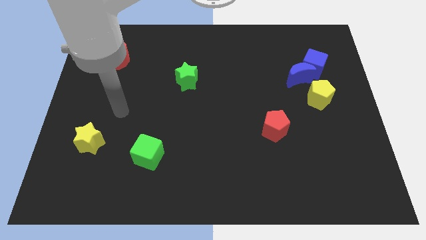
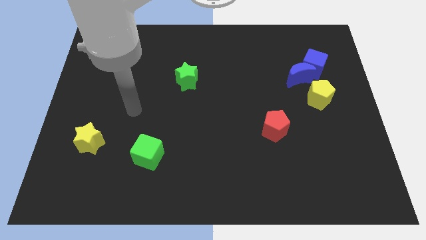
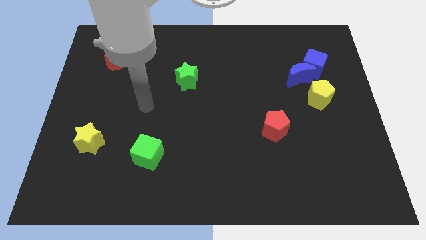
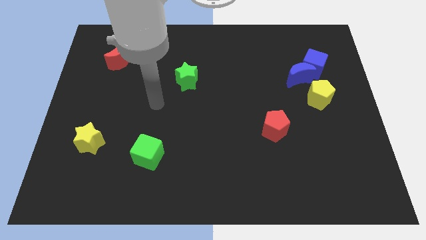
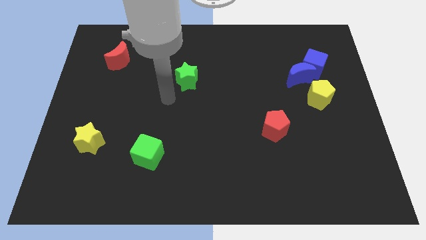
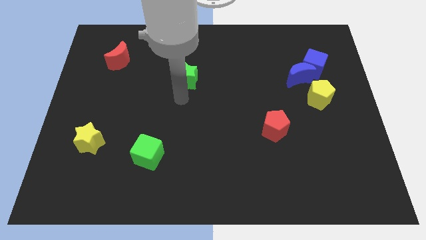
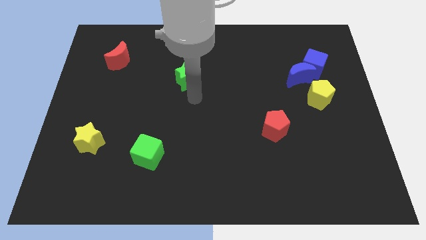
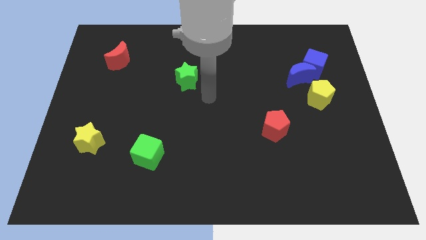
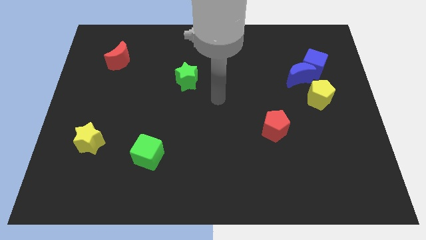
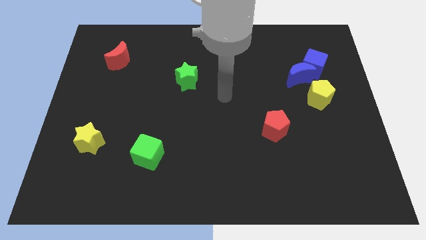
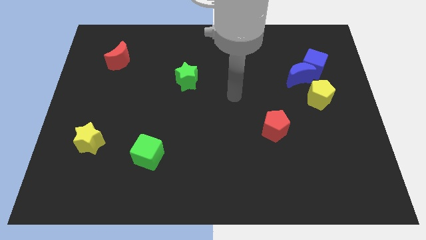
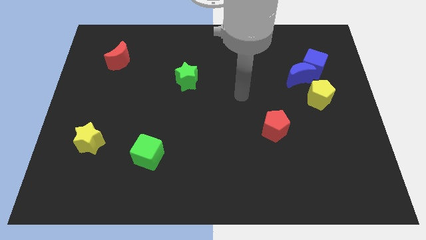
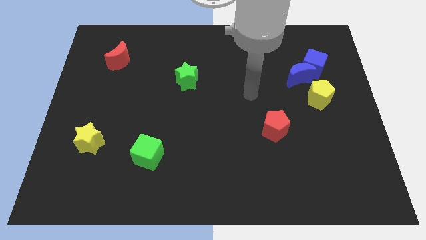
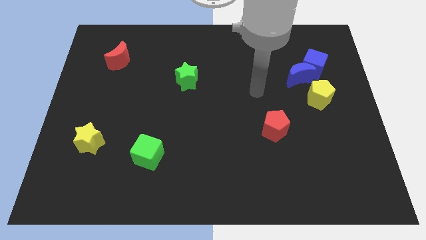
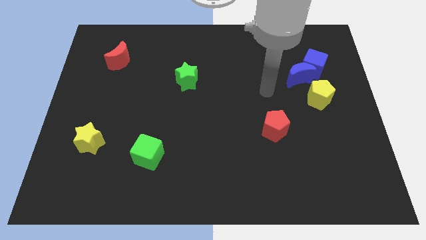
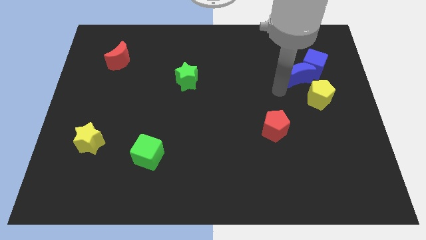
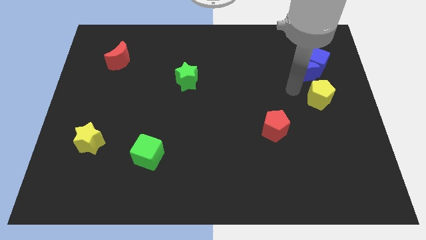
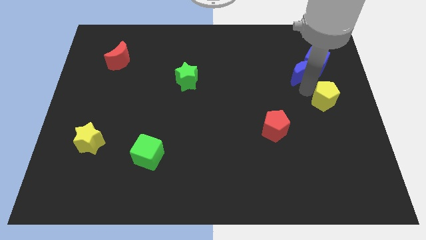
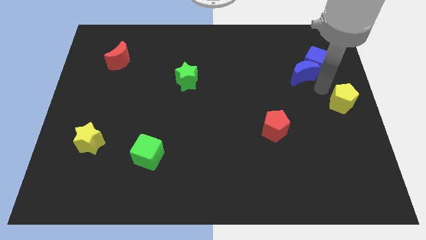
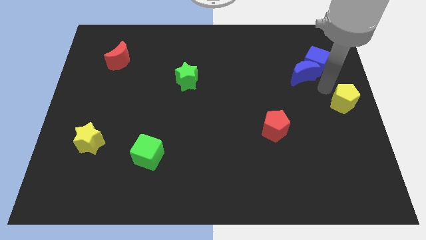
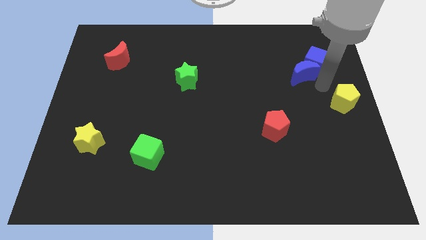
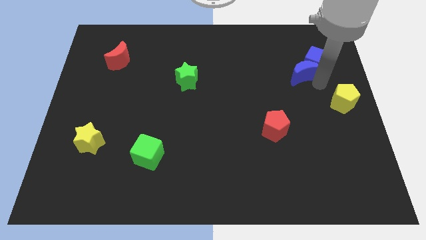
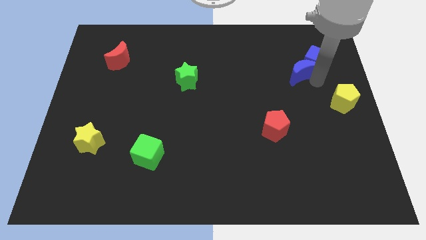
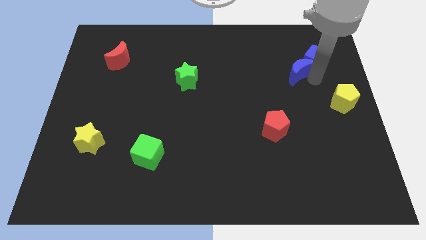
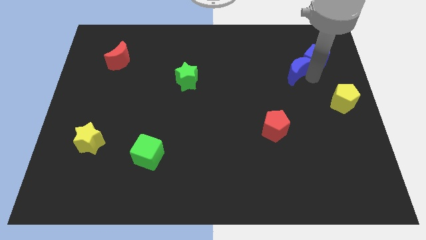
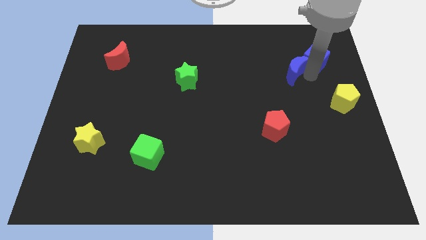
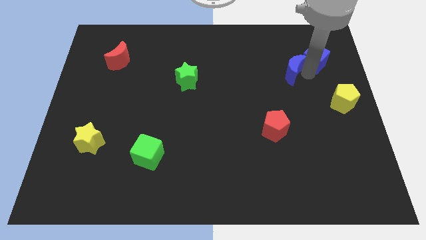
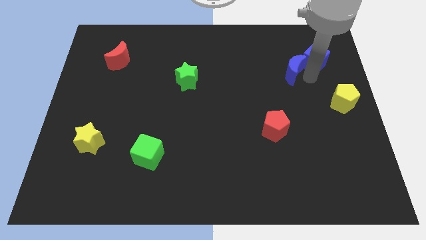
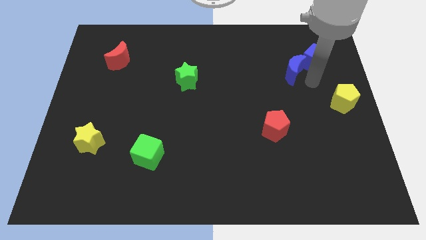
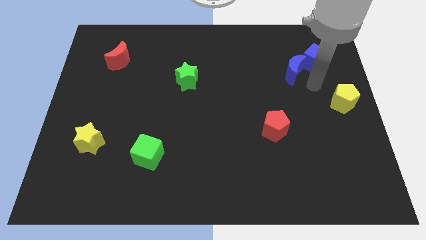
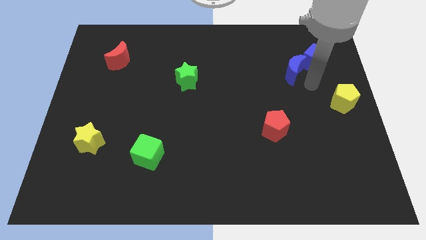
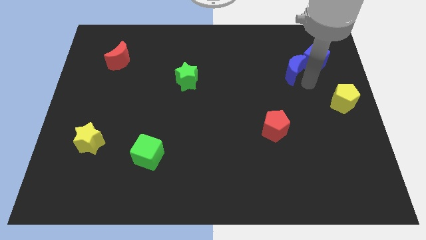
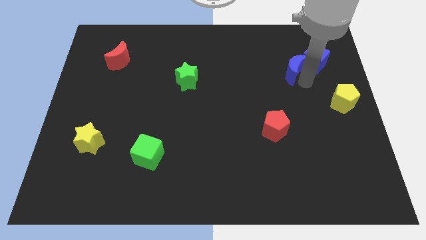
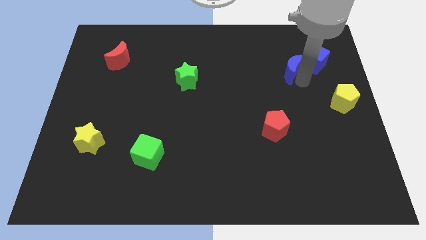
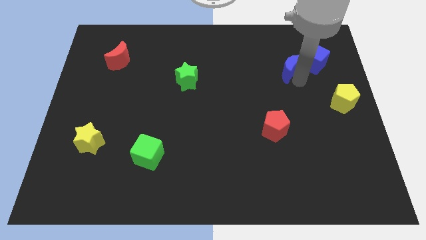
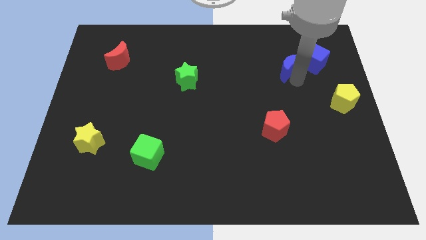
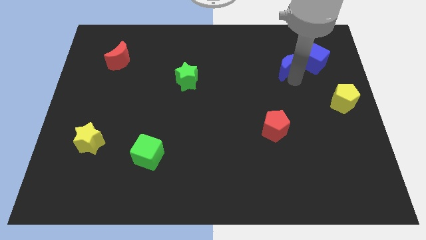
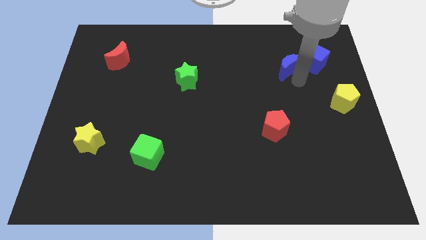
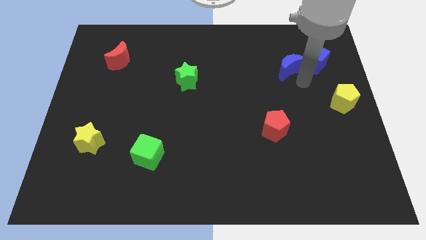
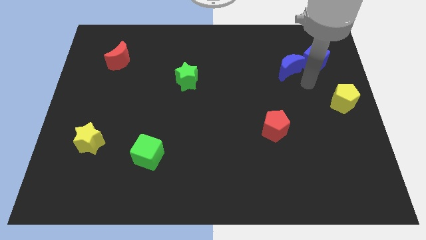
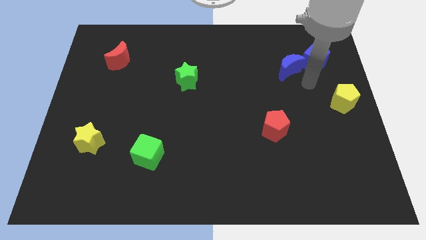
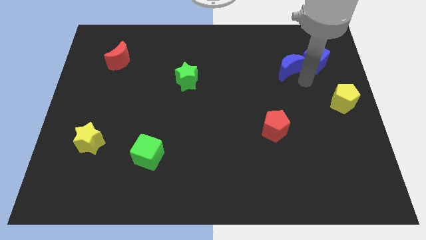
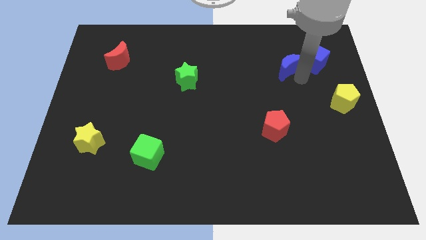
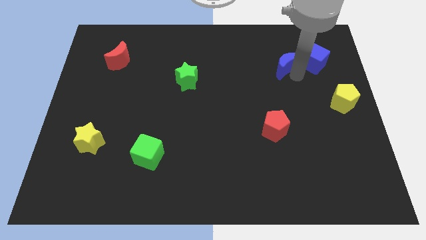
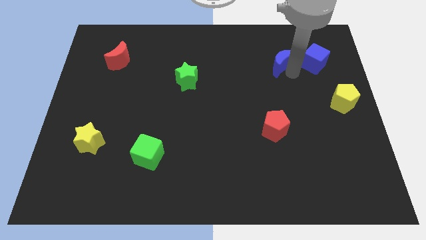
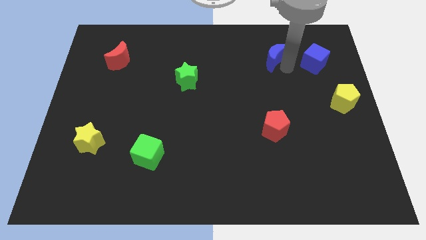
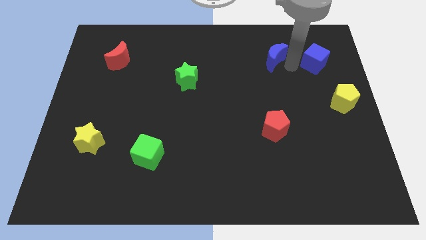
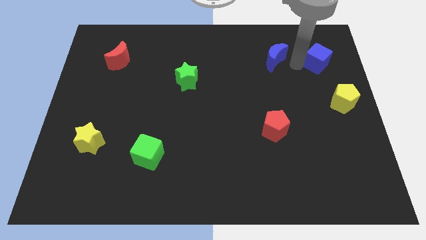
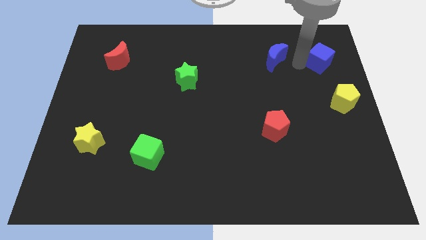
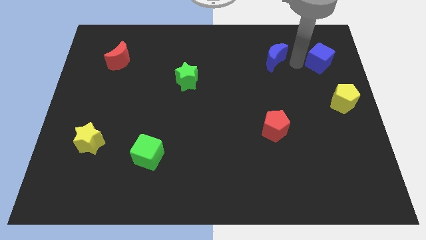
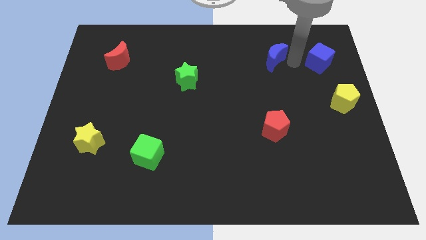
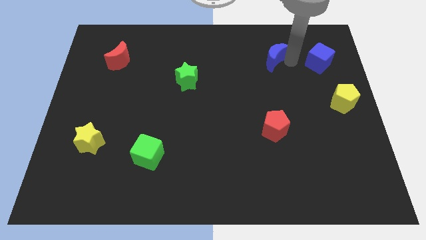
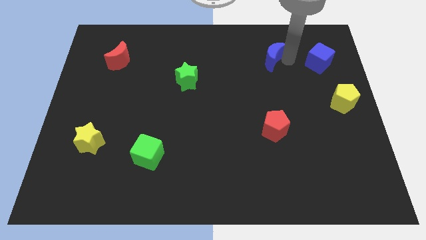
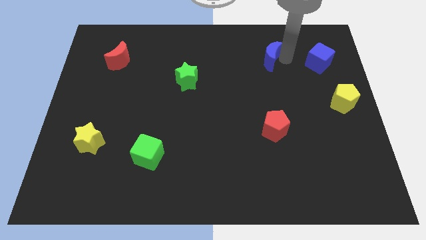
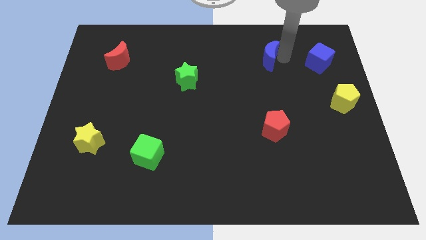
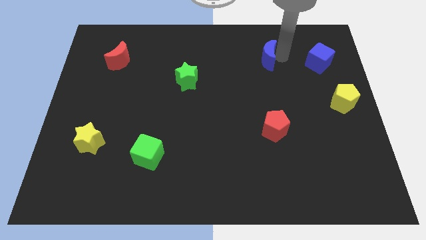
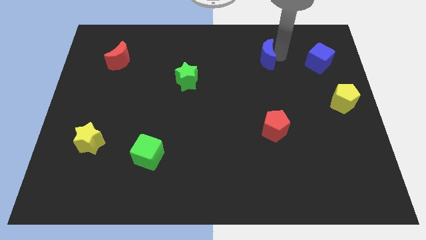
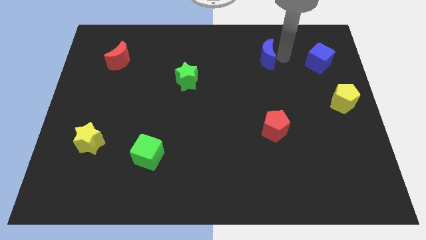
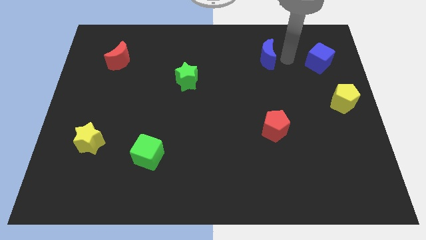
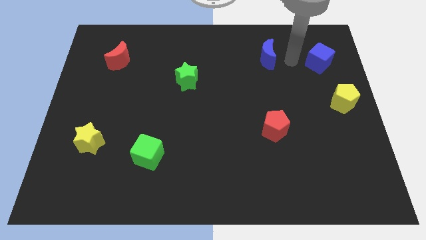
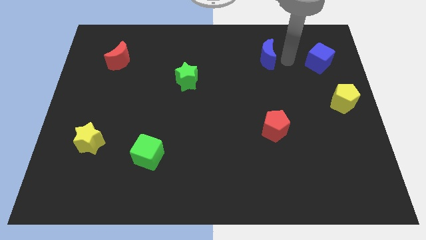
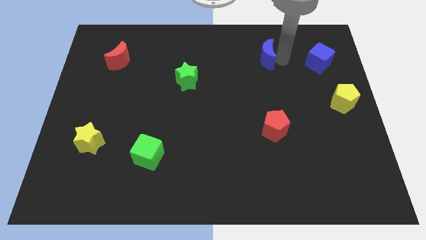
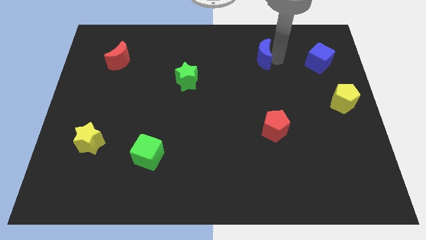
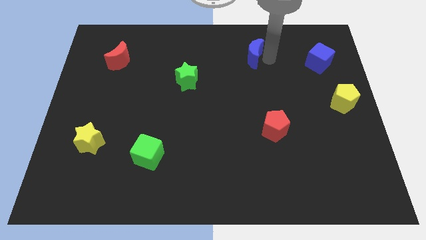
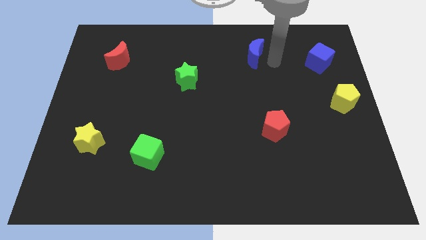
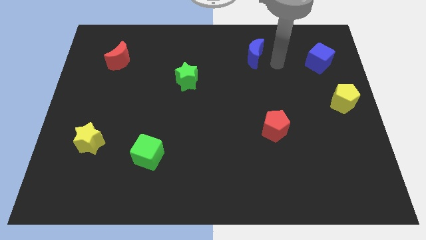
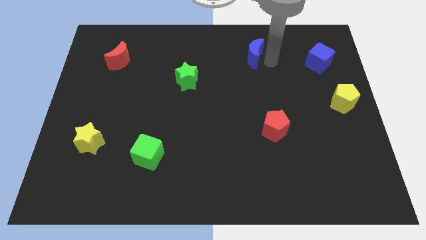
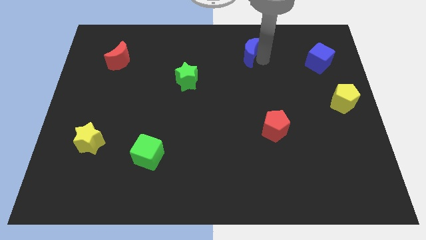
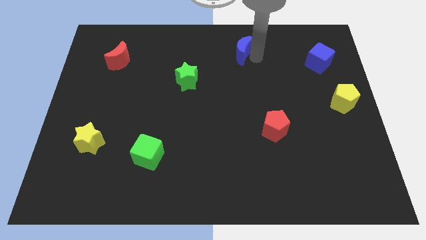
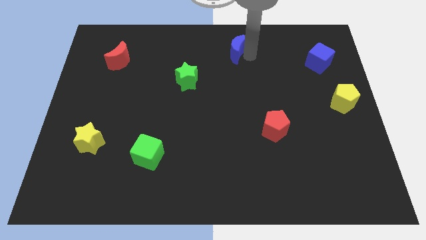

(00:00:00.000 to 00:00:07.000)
push the blue moon to the towards your base
